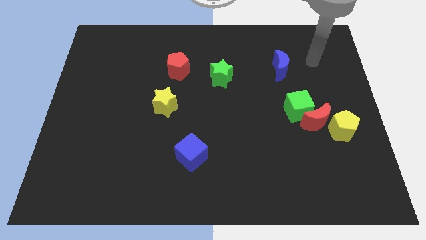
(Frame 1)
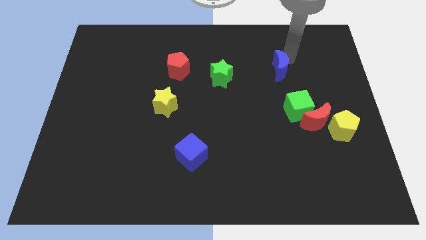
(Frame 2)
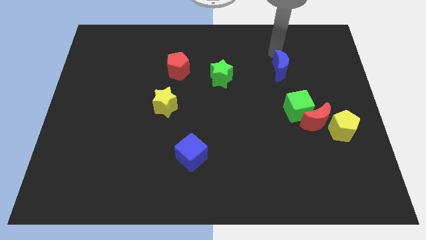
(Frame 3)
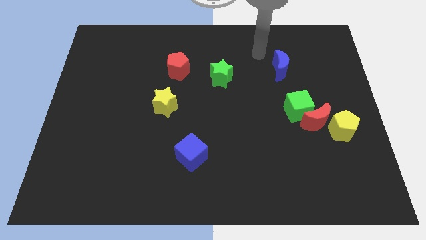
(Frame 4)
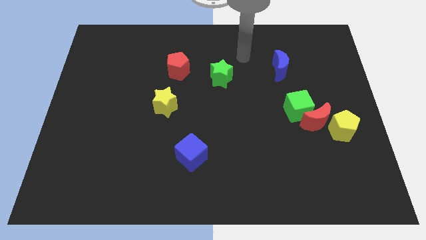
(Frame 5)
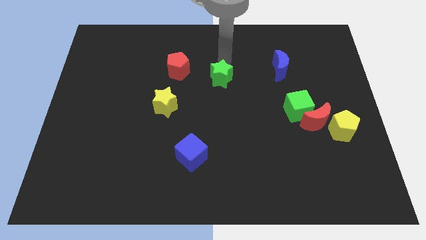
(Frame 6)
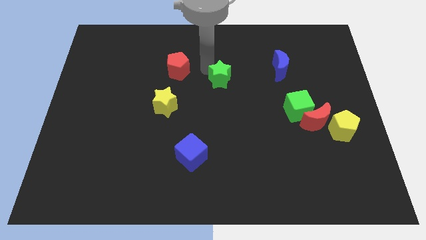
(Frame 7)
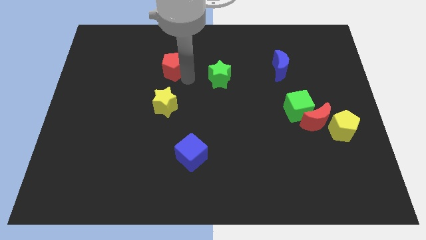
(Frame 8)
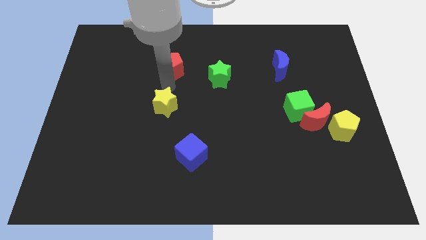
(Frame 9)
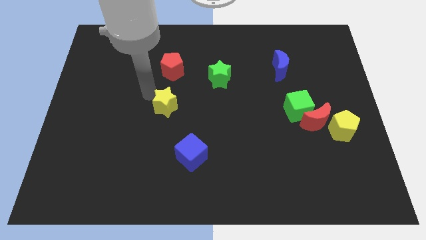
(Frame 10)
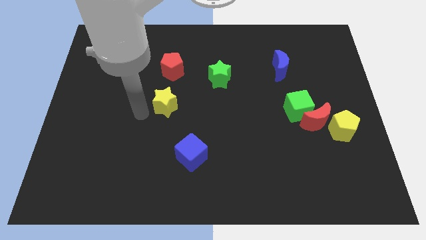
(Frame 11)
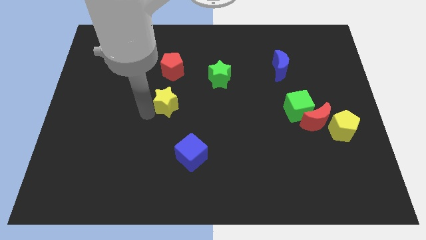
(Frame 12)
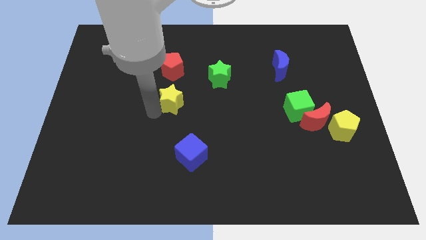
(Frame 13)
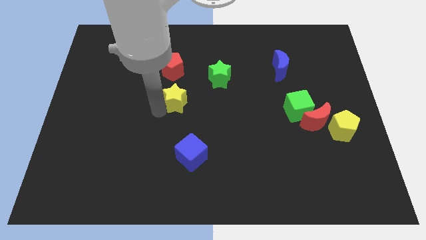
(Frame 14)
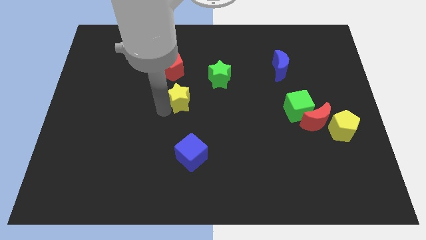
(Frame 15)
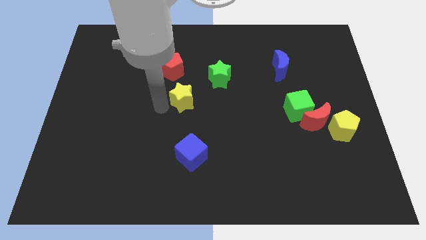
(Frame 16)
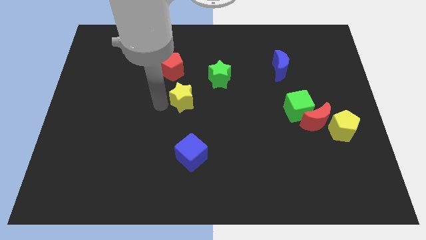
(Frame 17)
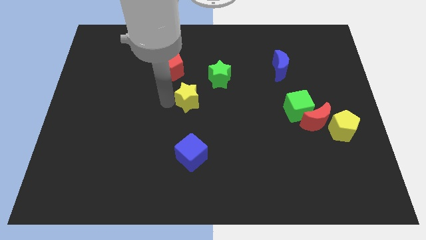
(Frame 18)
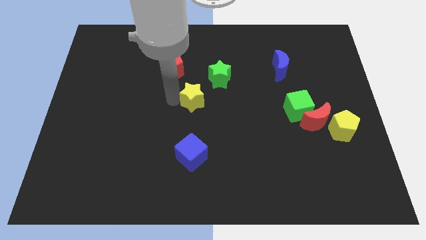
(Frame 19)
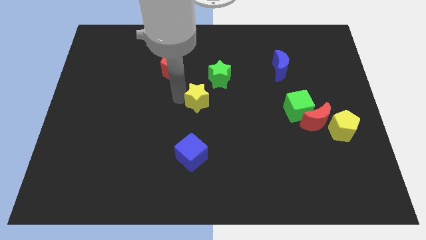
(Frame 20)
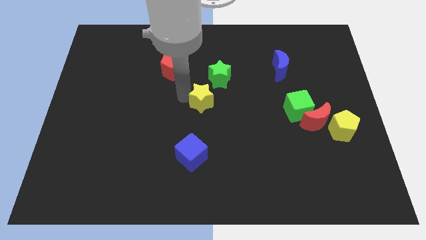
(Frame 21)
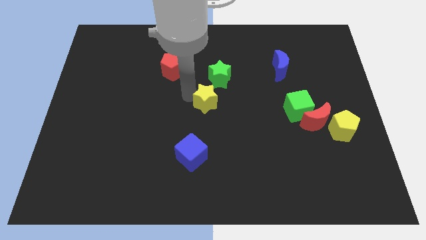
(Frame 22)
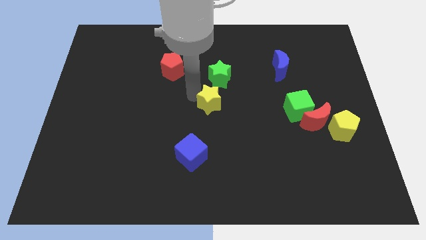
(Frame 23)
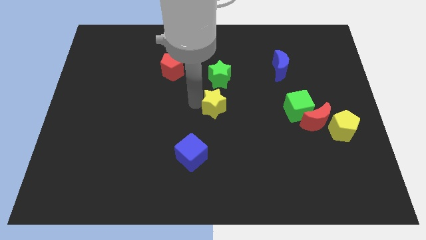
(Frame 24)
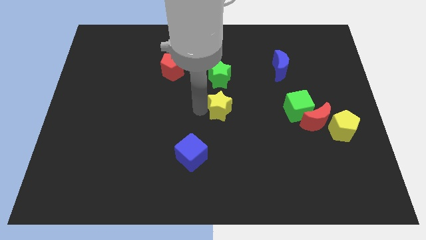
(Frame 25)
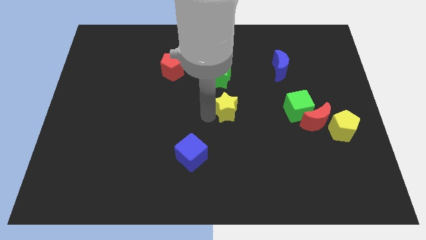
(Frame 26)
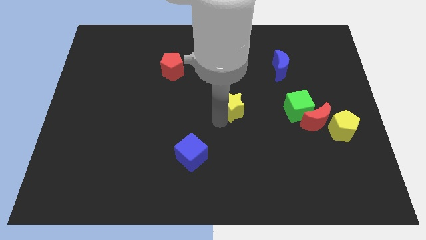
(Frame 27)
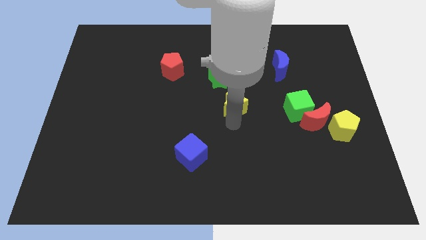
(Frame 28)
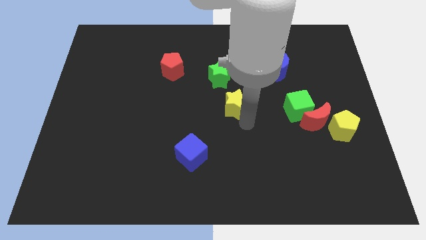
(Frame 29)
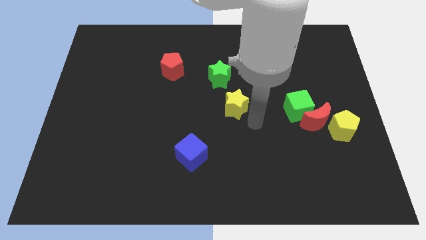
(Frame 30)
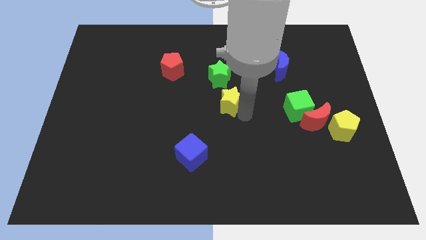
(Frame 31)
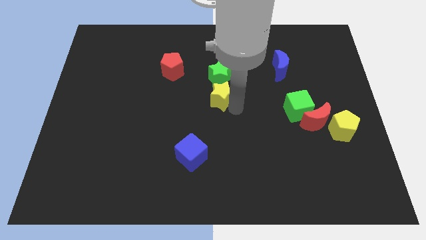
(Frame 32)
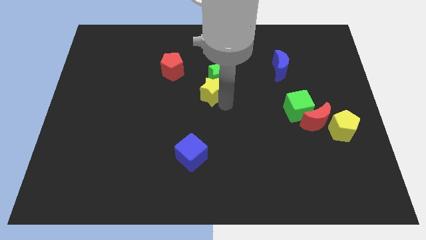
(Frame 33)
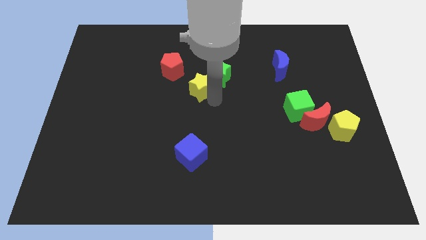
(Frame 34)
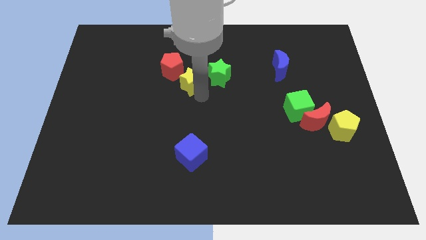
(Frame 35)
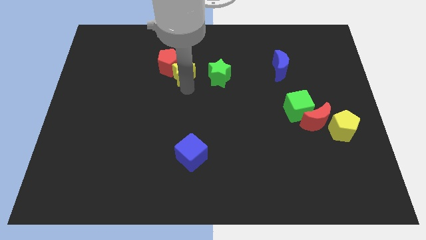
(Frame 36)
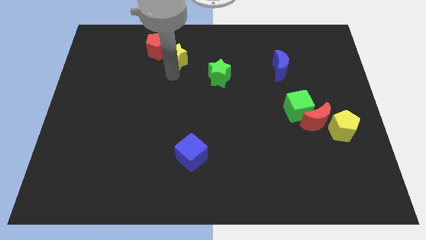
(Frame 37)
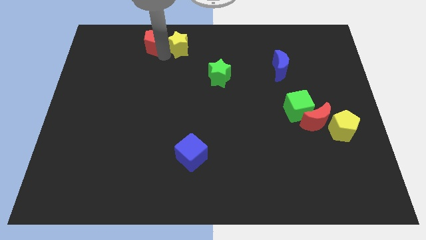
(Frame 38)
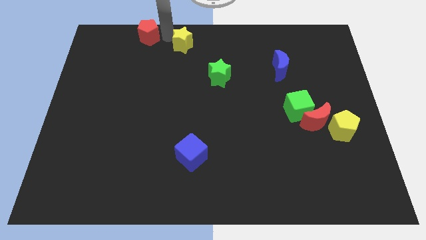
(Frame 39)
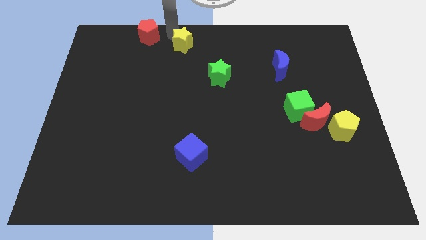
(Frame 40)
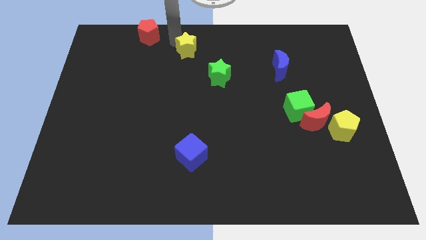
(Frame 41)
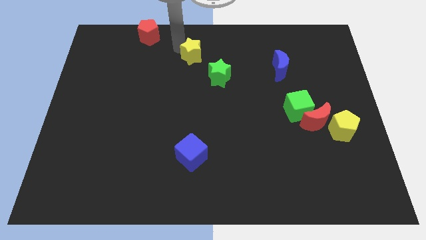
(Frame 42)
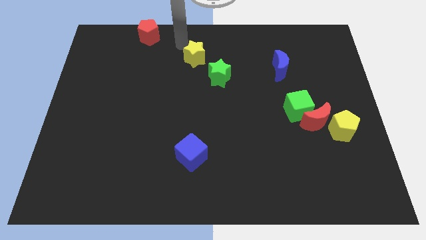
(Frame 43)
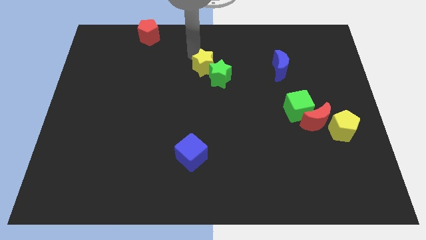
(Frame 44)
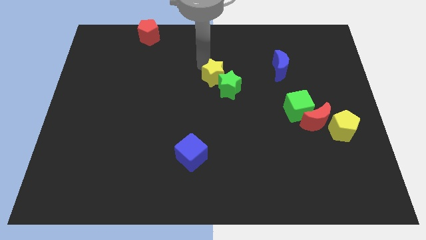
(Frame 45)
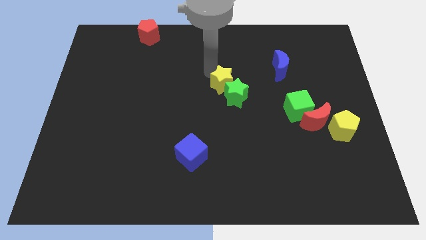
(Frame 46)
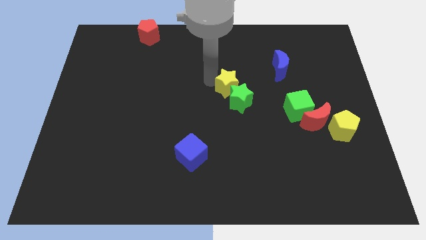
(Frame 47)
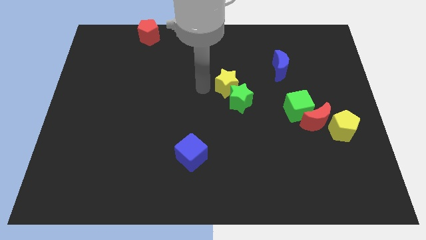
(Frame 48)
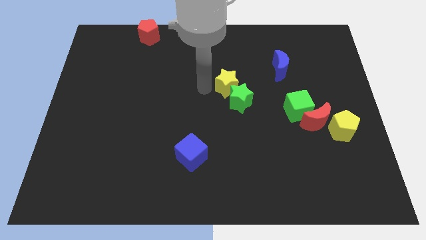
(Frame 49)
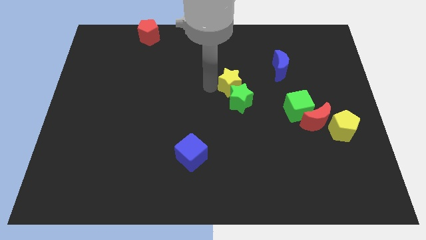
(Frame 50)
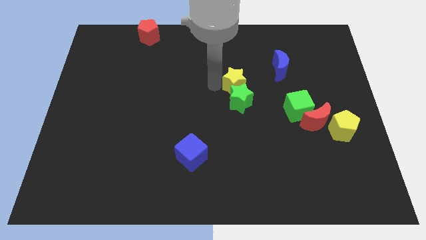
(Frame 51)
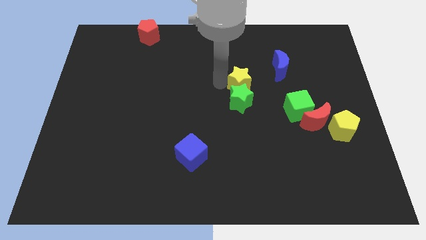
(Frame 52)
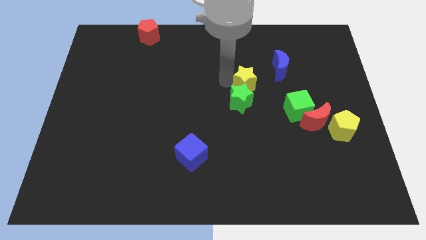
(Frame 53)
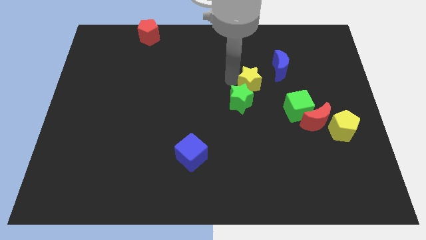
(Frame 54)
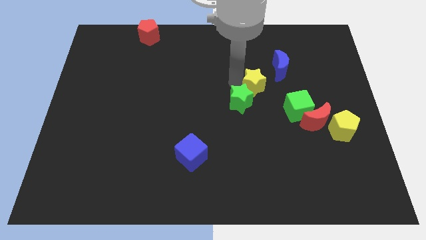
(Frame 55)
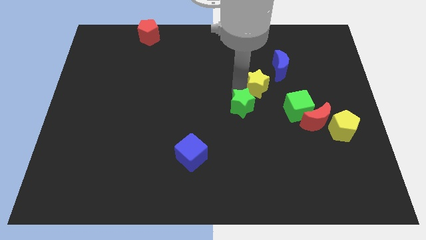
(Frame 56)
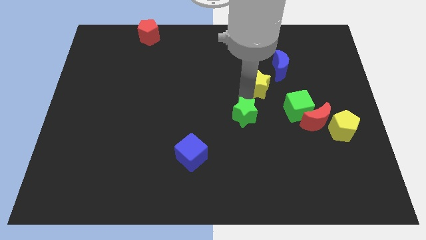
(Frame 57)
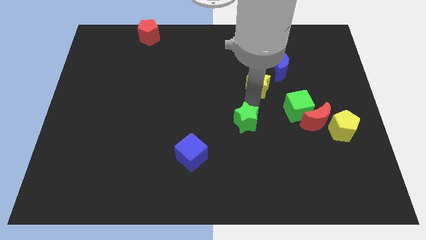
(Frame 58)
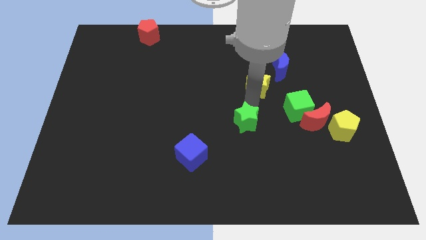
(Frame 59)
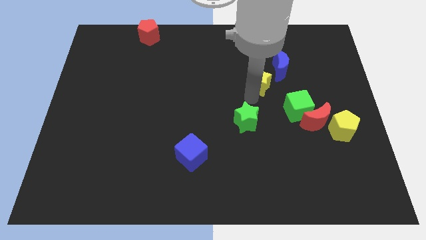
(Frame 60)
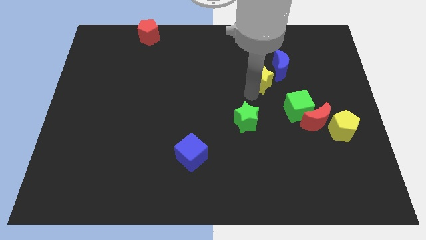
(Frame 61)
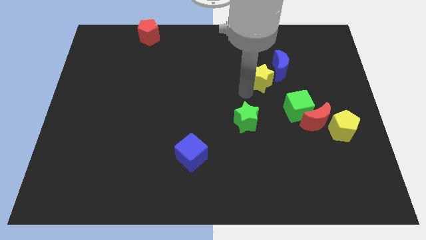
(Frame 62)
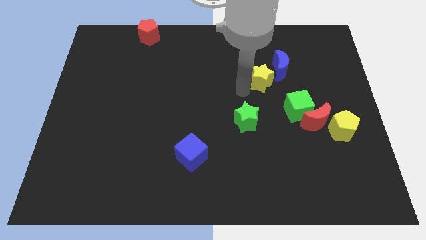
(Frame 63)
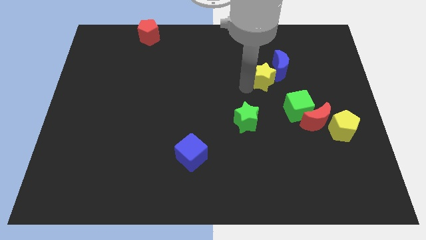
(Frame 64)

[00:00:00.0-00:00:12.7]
put the yellow star towards the blue moon
